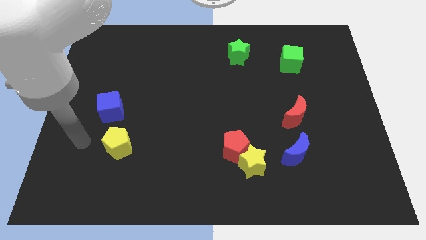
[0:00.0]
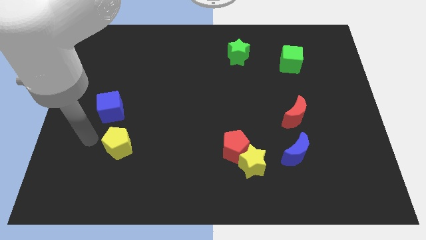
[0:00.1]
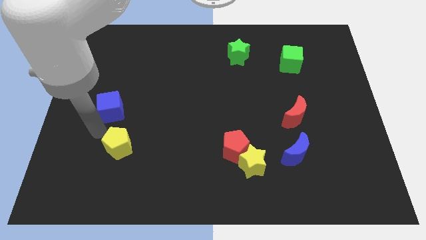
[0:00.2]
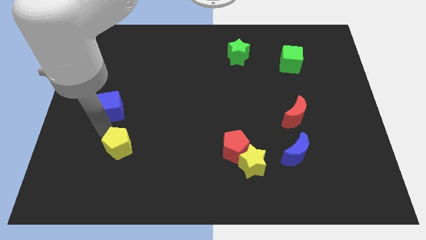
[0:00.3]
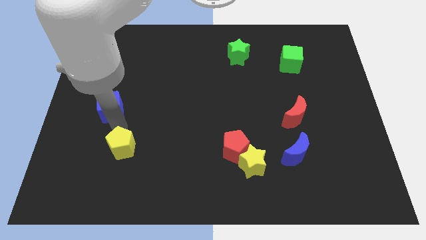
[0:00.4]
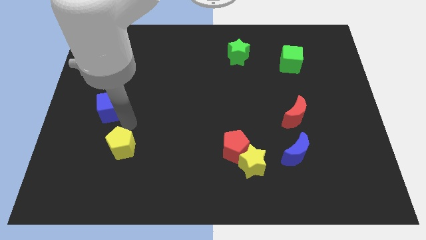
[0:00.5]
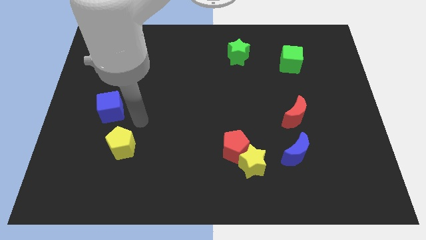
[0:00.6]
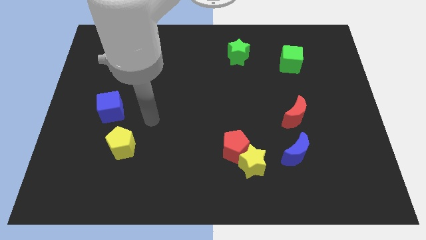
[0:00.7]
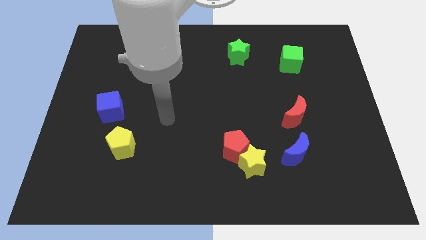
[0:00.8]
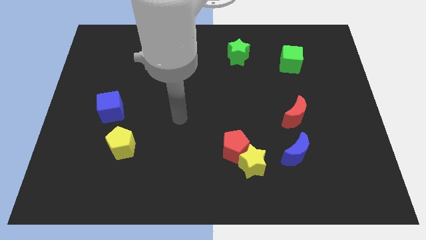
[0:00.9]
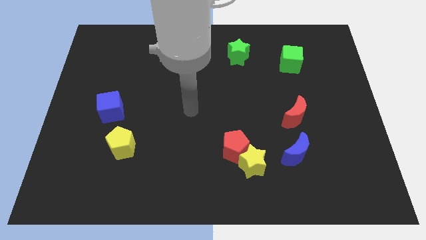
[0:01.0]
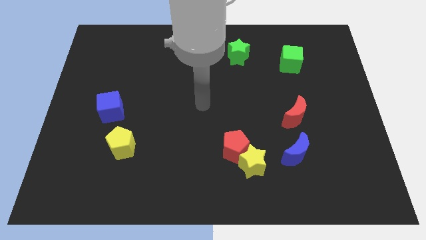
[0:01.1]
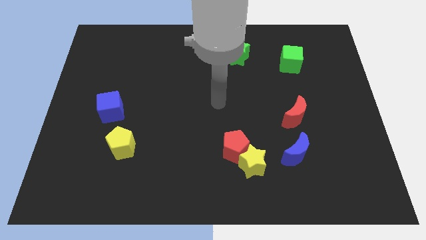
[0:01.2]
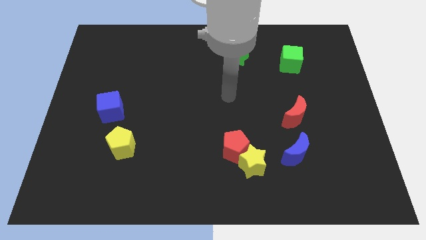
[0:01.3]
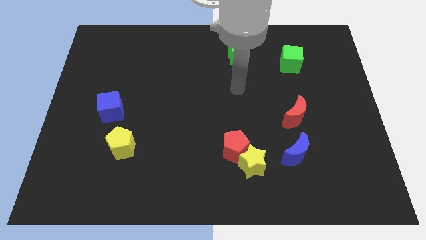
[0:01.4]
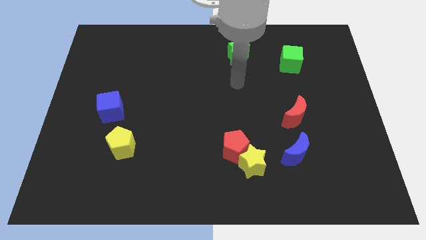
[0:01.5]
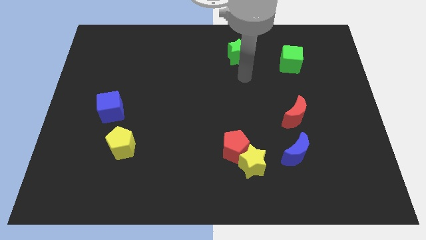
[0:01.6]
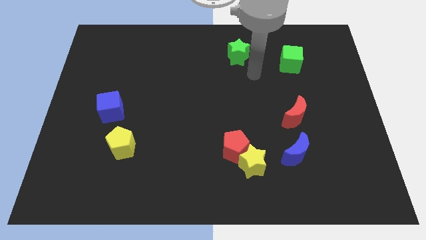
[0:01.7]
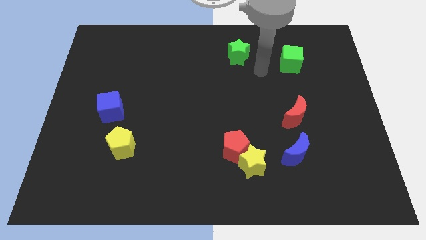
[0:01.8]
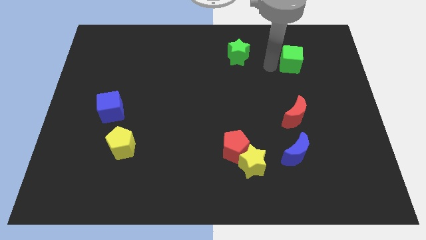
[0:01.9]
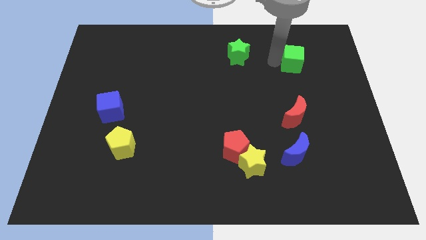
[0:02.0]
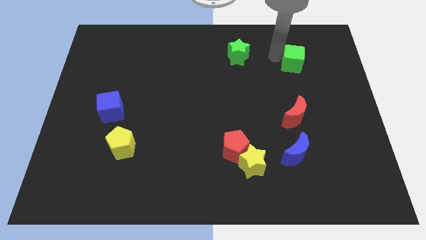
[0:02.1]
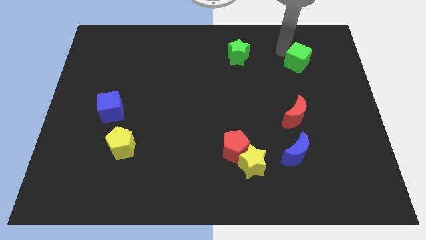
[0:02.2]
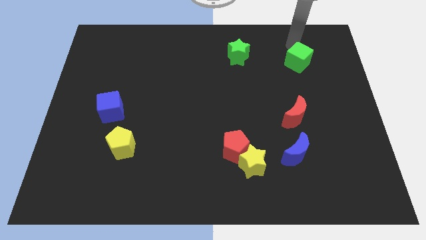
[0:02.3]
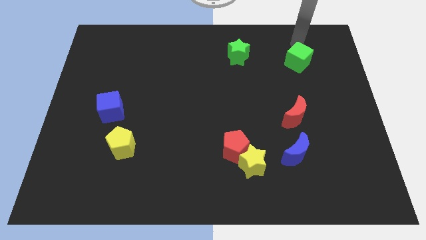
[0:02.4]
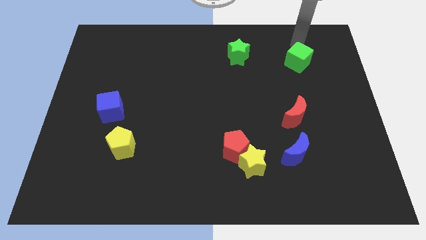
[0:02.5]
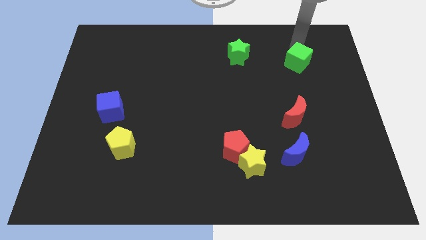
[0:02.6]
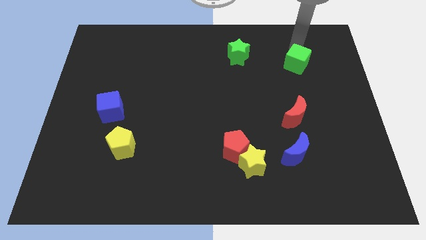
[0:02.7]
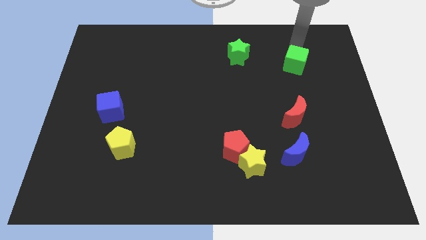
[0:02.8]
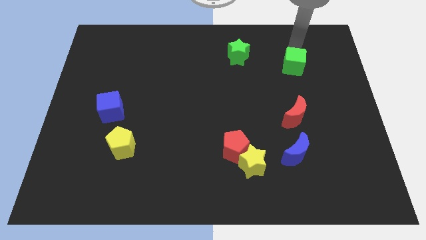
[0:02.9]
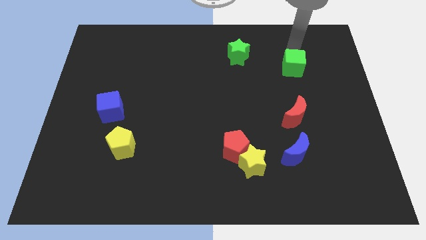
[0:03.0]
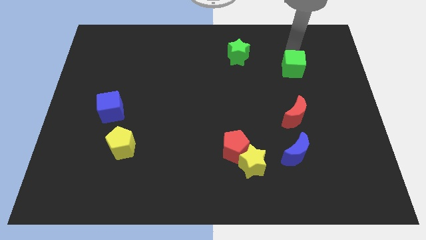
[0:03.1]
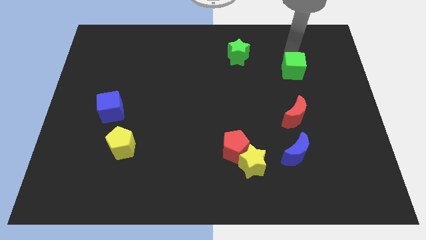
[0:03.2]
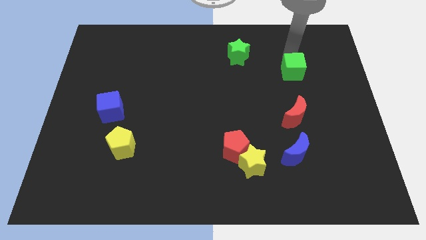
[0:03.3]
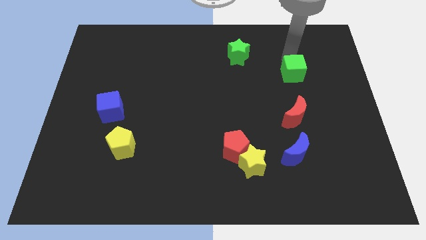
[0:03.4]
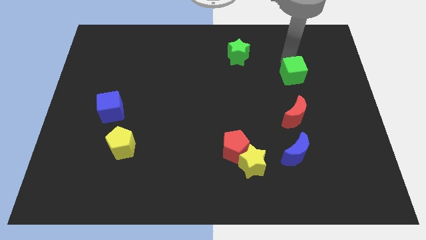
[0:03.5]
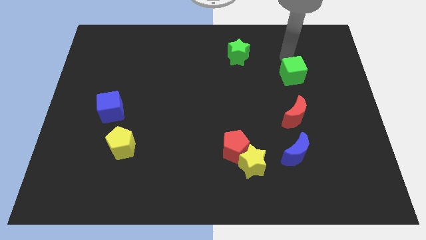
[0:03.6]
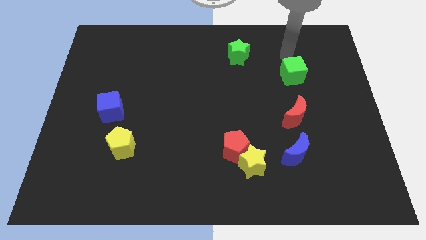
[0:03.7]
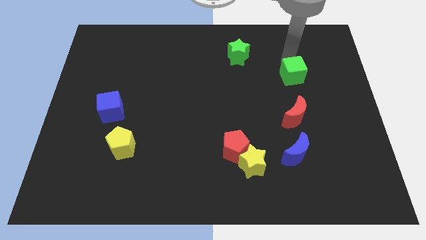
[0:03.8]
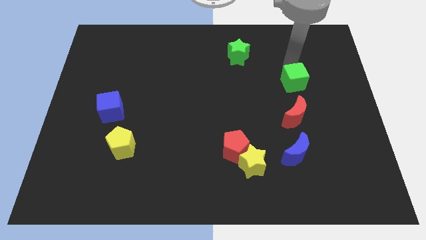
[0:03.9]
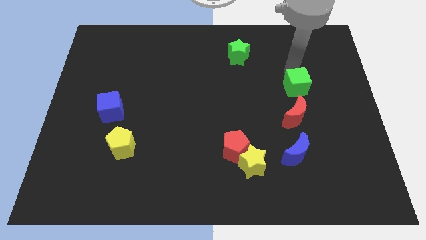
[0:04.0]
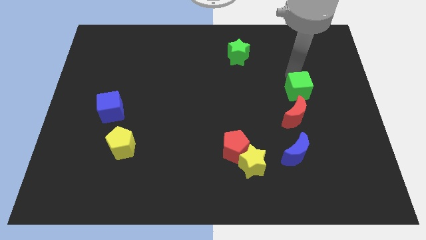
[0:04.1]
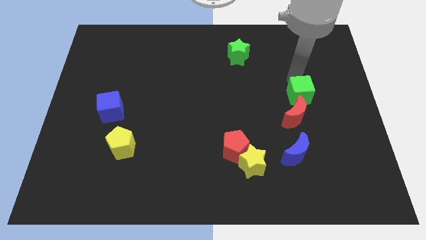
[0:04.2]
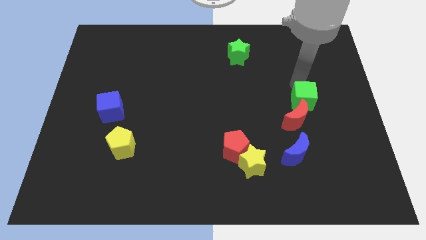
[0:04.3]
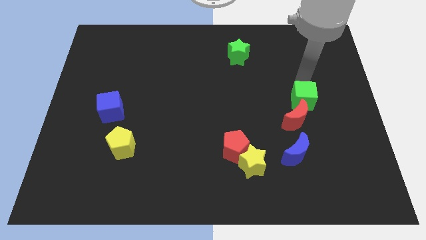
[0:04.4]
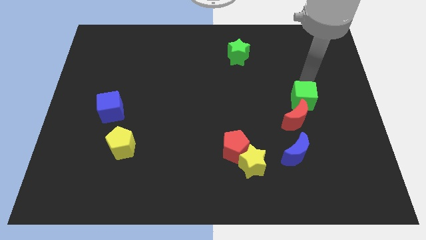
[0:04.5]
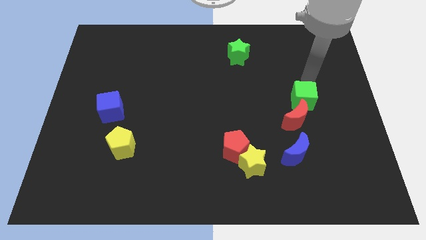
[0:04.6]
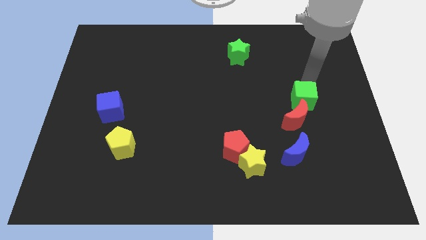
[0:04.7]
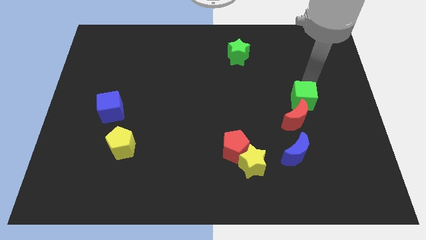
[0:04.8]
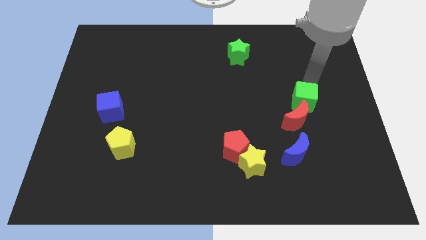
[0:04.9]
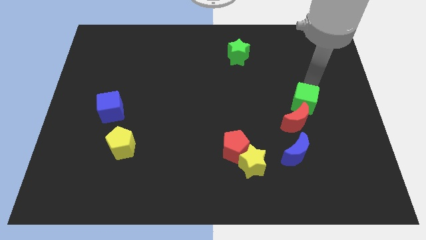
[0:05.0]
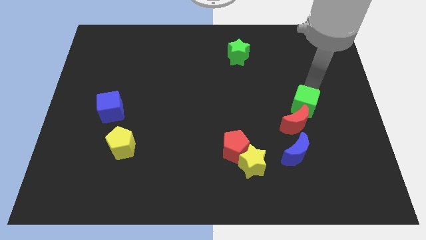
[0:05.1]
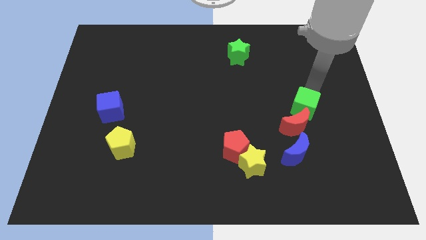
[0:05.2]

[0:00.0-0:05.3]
push the green cube towards the red moon
